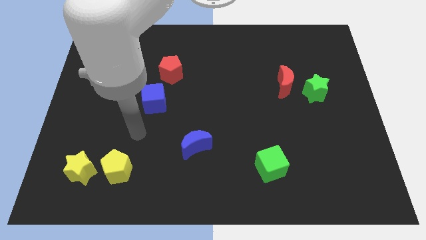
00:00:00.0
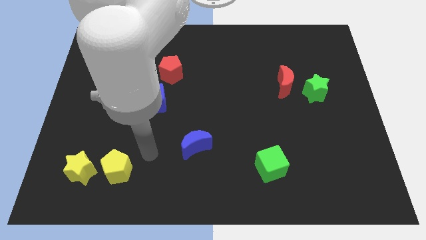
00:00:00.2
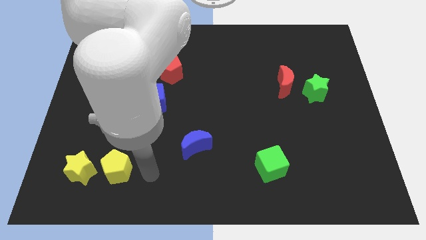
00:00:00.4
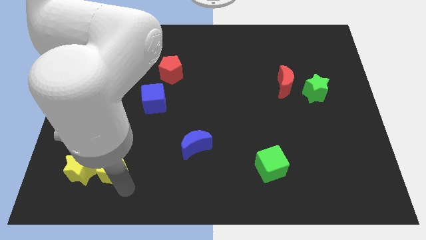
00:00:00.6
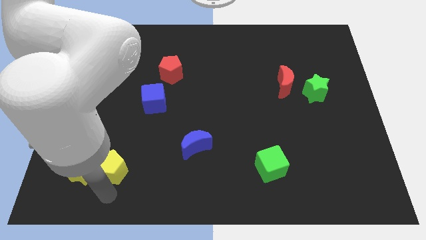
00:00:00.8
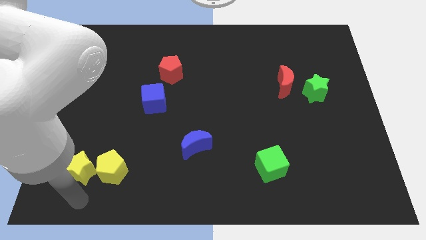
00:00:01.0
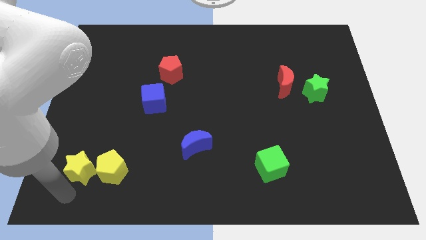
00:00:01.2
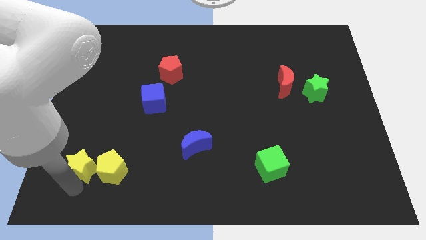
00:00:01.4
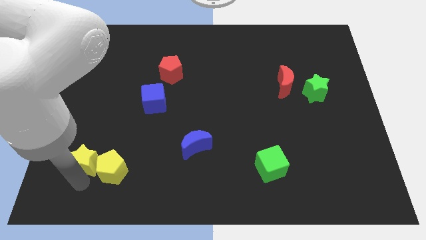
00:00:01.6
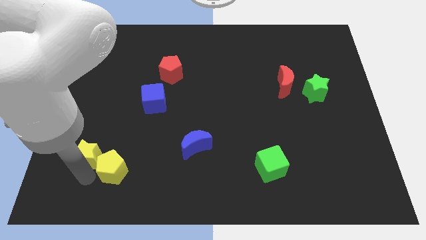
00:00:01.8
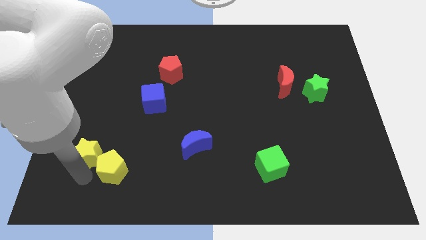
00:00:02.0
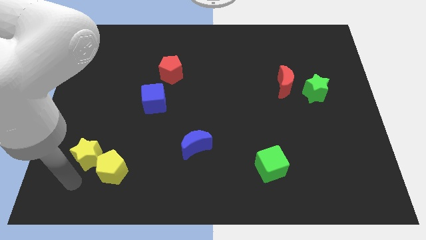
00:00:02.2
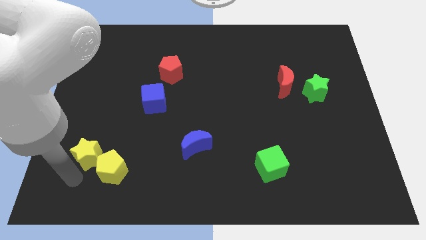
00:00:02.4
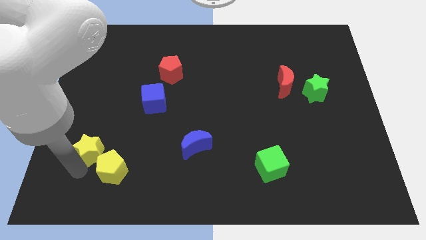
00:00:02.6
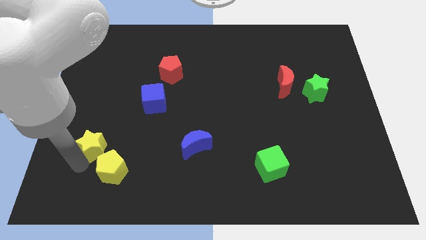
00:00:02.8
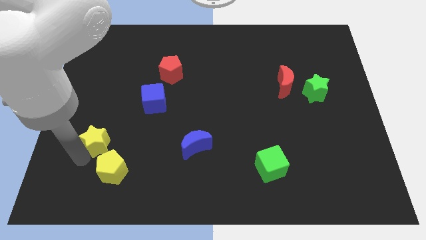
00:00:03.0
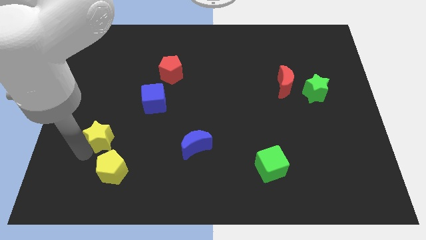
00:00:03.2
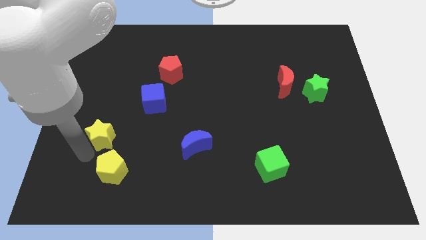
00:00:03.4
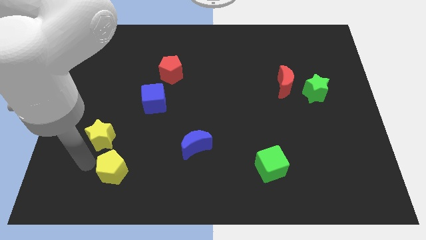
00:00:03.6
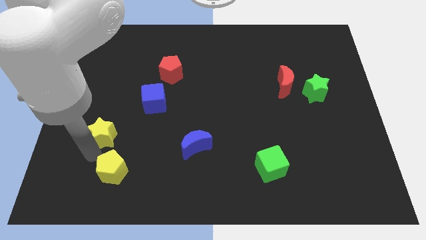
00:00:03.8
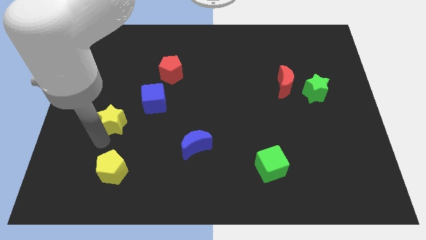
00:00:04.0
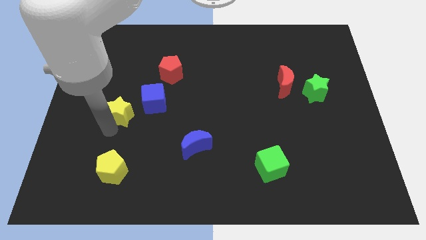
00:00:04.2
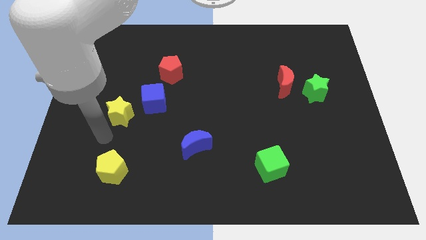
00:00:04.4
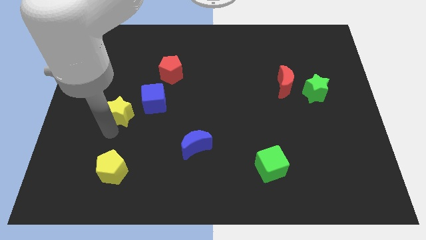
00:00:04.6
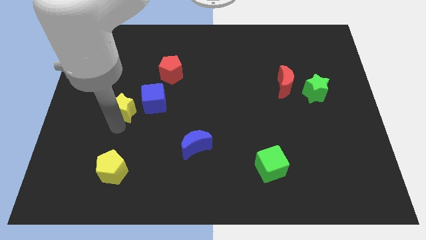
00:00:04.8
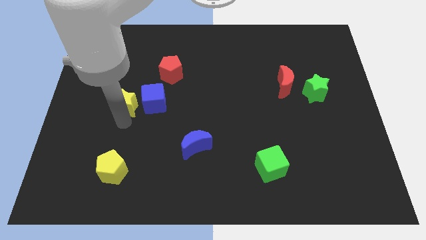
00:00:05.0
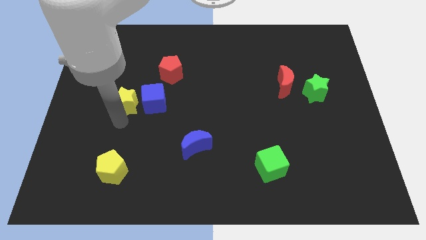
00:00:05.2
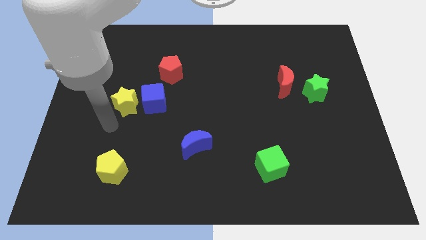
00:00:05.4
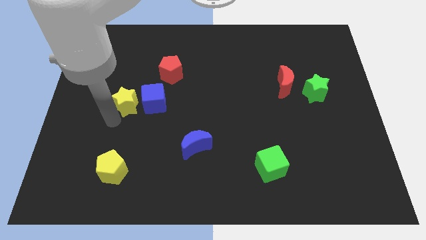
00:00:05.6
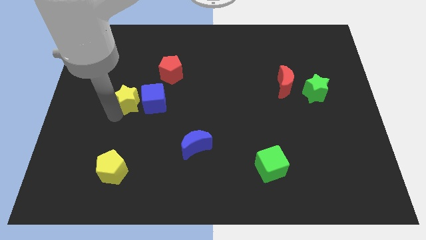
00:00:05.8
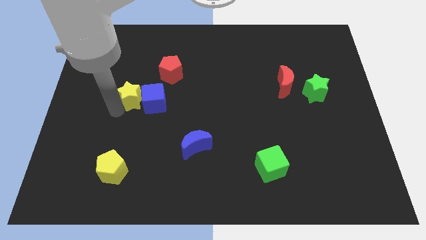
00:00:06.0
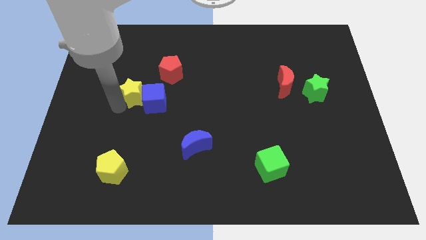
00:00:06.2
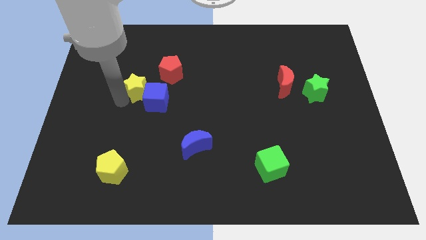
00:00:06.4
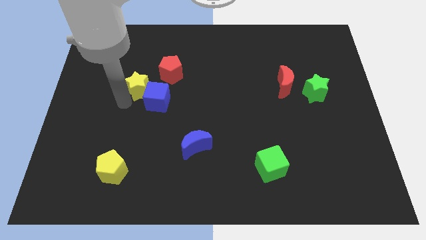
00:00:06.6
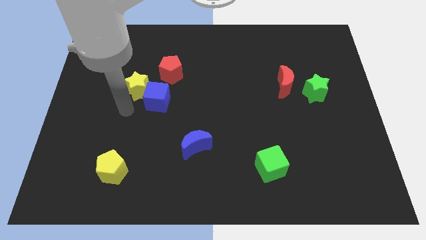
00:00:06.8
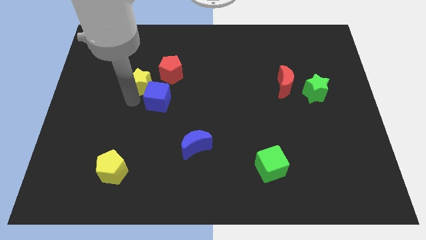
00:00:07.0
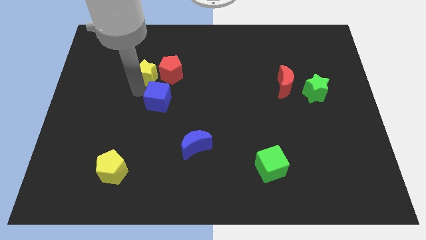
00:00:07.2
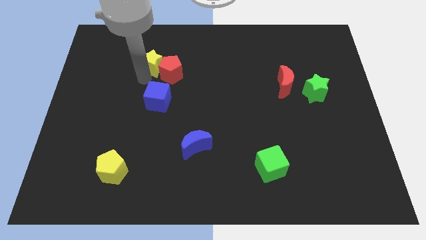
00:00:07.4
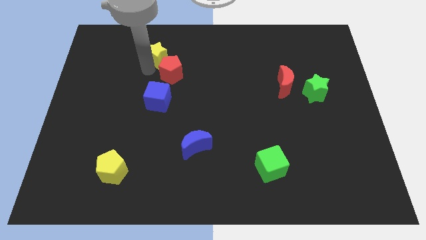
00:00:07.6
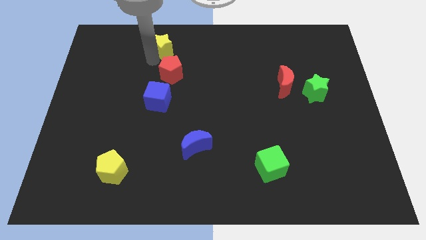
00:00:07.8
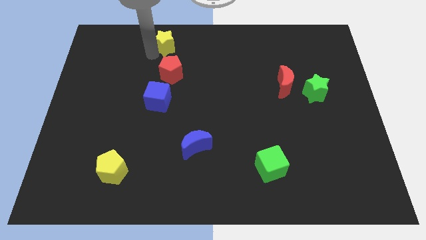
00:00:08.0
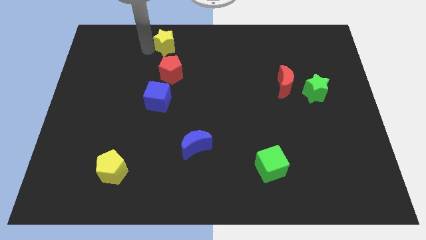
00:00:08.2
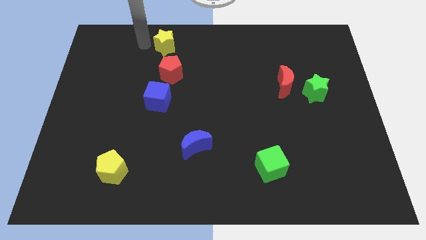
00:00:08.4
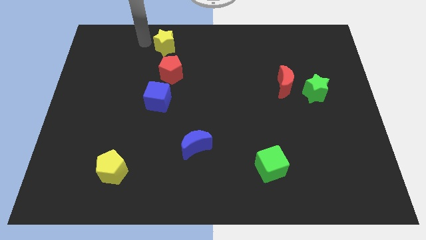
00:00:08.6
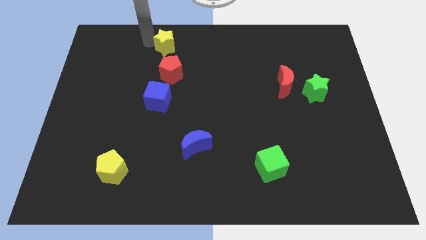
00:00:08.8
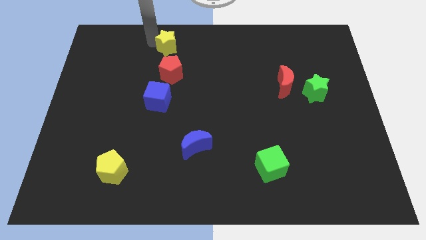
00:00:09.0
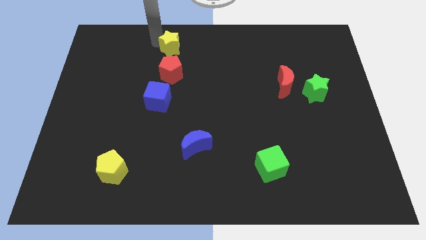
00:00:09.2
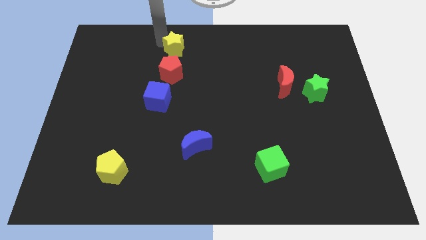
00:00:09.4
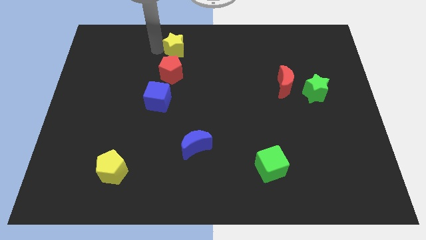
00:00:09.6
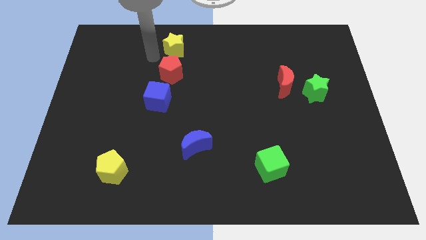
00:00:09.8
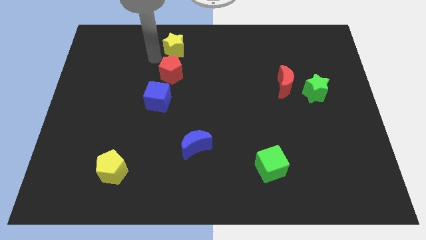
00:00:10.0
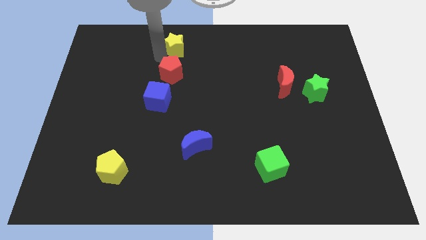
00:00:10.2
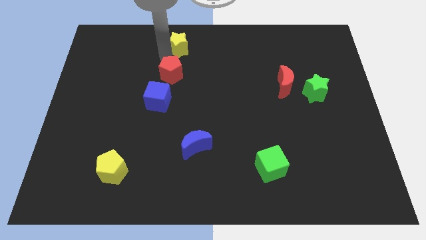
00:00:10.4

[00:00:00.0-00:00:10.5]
slide the yellow star to the towards your base

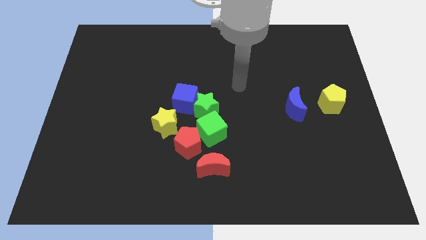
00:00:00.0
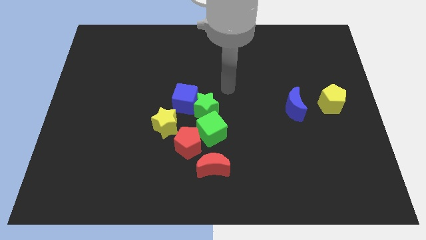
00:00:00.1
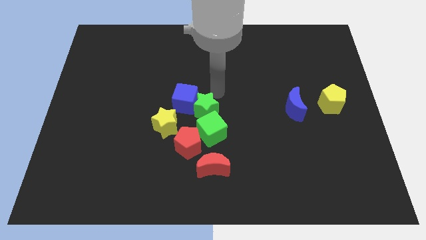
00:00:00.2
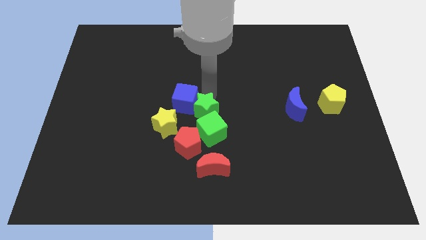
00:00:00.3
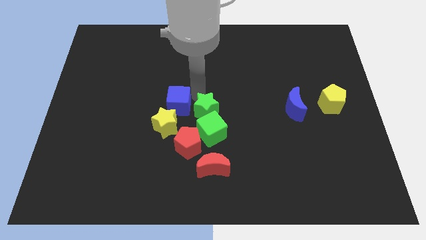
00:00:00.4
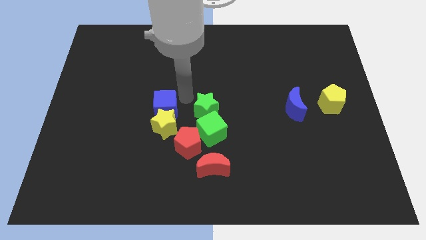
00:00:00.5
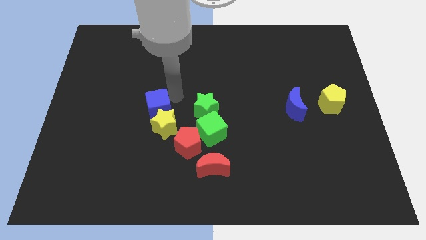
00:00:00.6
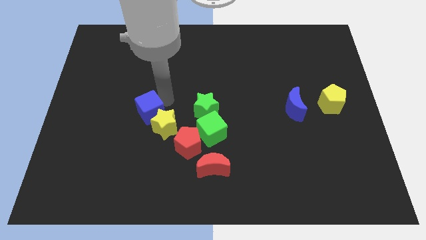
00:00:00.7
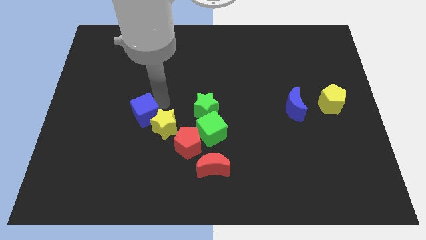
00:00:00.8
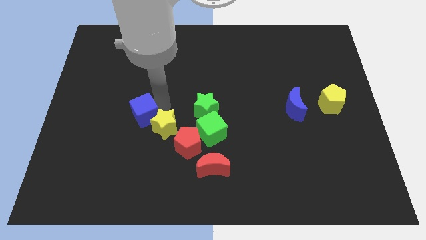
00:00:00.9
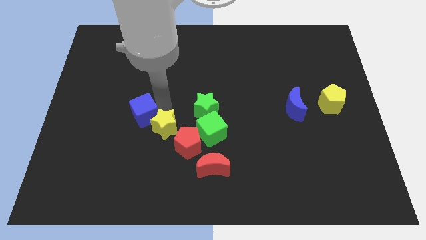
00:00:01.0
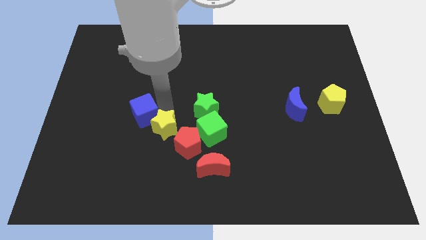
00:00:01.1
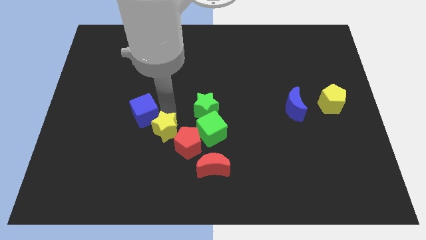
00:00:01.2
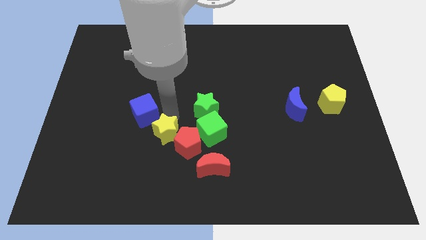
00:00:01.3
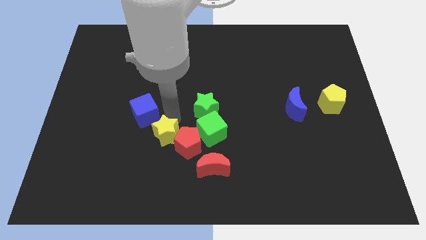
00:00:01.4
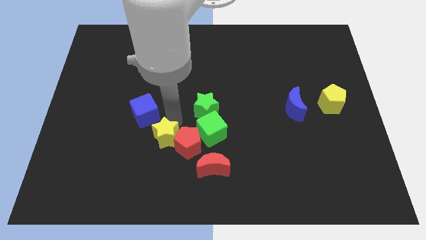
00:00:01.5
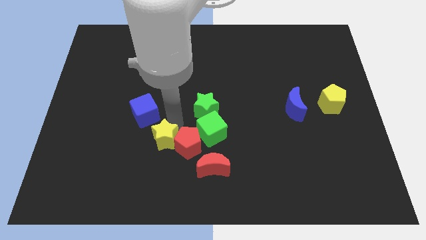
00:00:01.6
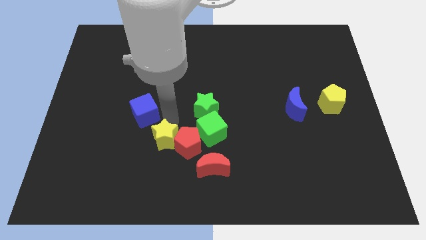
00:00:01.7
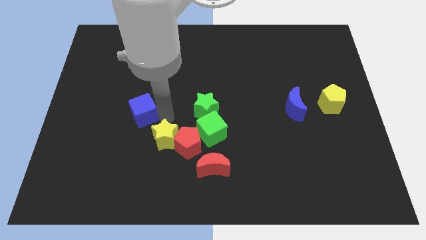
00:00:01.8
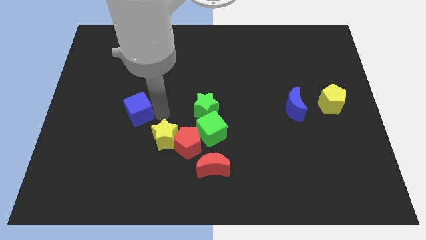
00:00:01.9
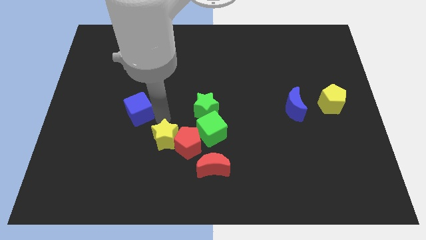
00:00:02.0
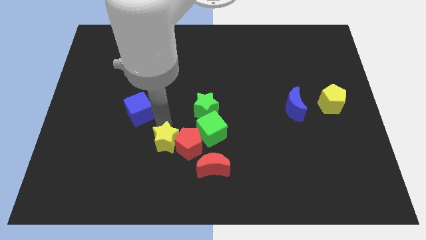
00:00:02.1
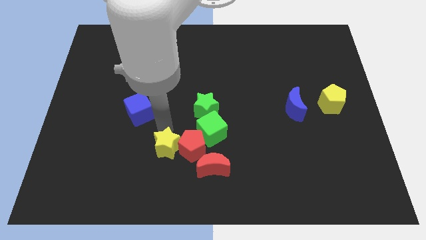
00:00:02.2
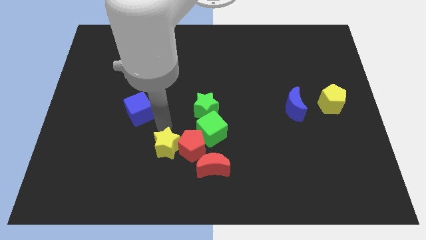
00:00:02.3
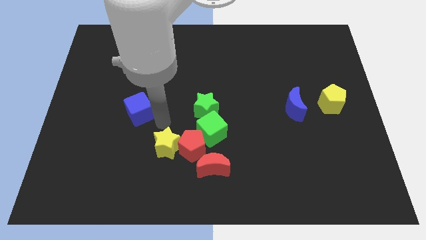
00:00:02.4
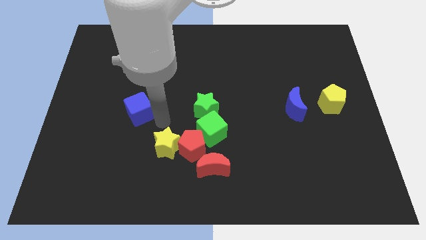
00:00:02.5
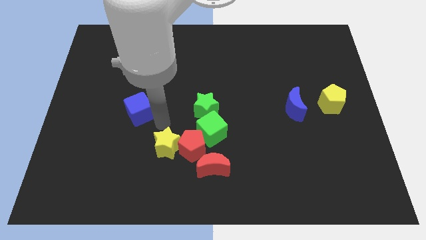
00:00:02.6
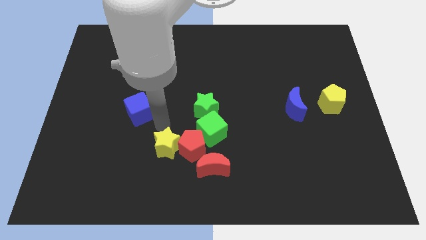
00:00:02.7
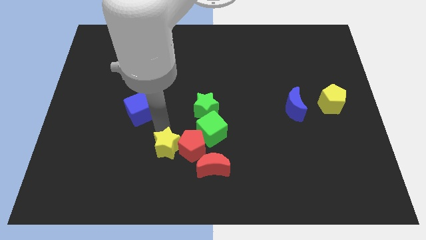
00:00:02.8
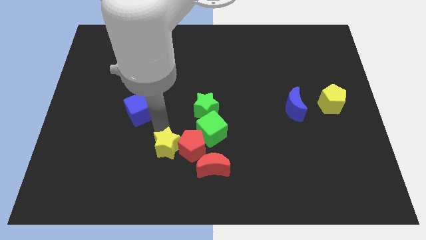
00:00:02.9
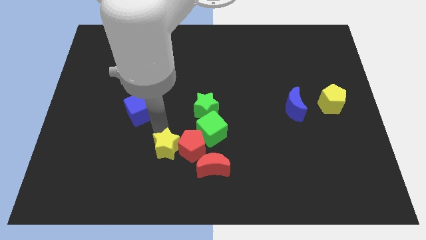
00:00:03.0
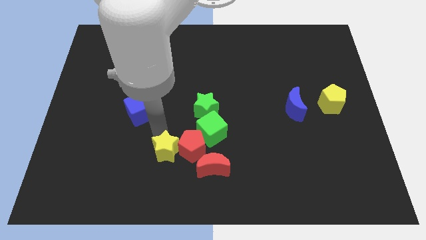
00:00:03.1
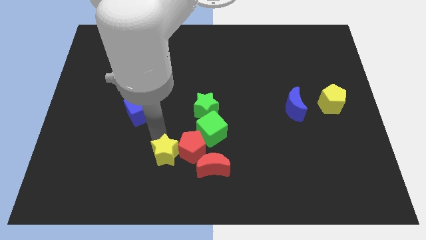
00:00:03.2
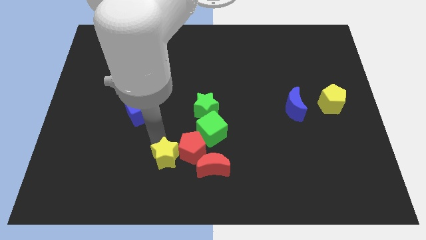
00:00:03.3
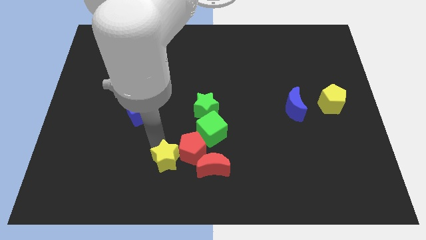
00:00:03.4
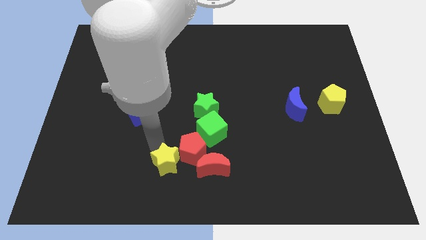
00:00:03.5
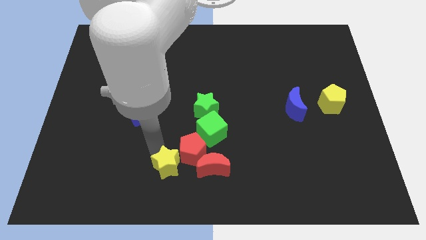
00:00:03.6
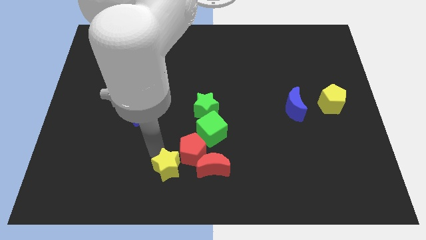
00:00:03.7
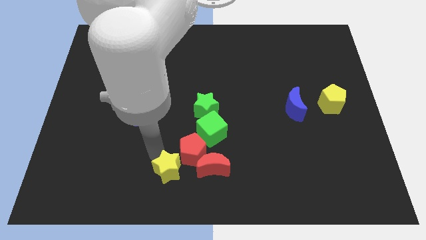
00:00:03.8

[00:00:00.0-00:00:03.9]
put the yellow star to the bottom
